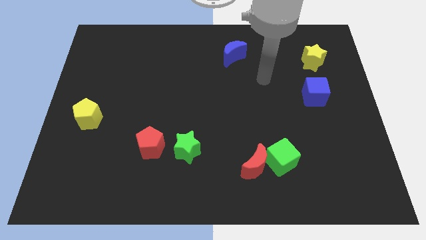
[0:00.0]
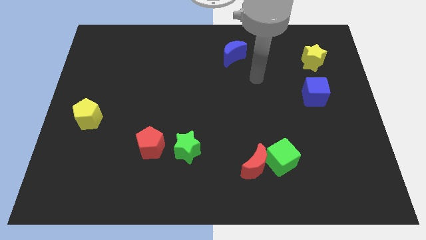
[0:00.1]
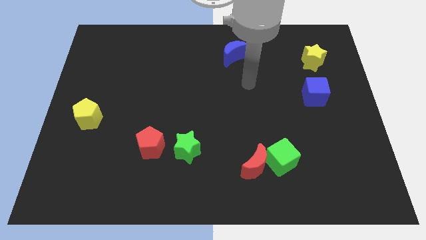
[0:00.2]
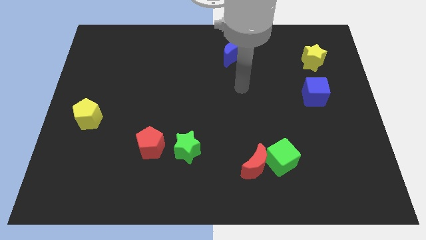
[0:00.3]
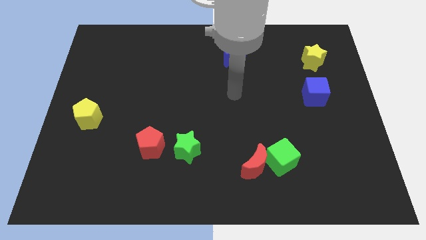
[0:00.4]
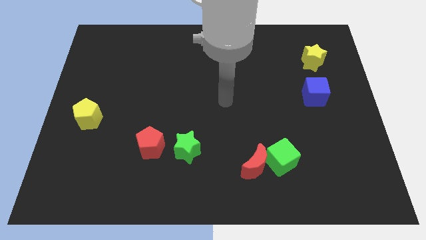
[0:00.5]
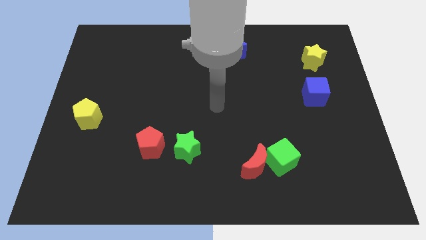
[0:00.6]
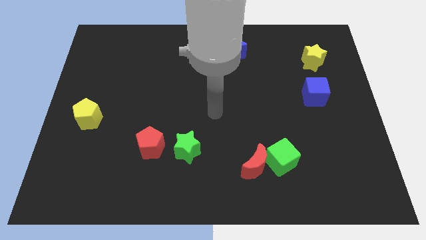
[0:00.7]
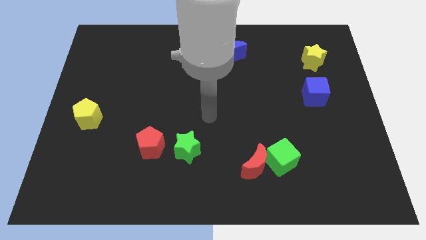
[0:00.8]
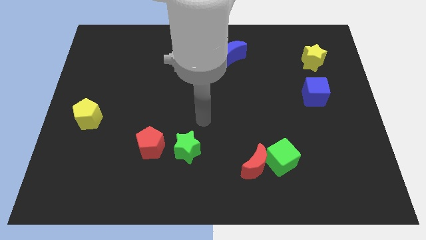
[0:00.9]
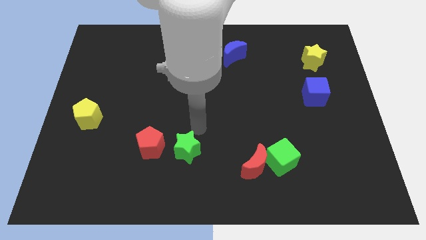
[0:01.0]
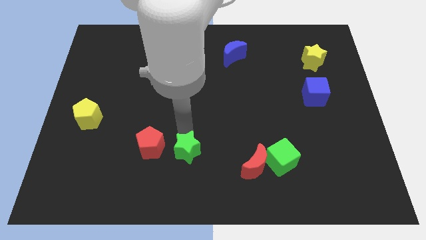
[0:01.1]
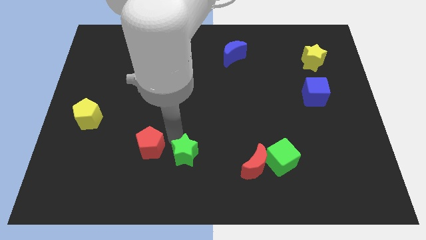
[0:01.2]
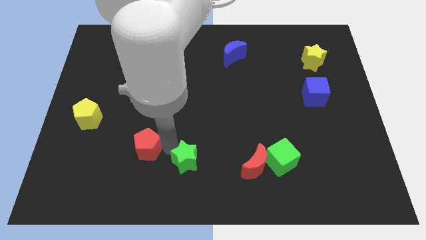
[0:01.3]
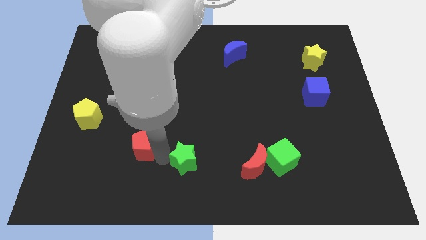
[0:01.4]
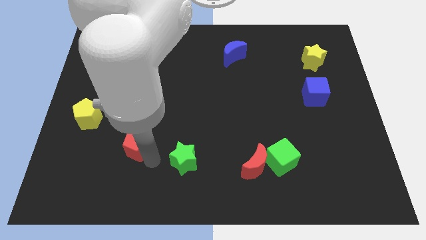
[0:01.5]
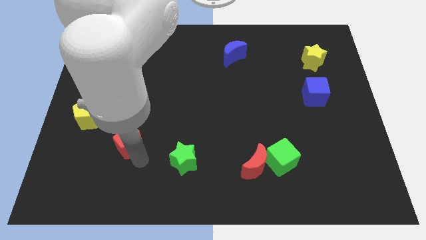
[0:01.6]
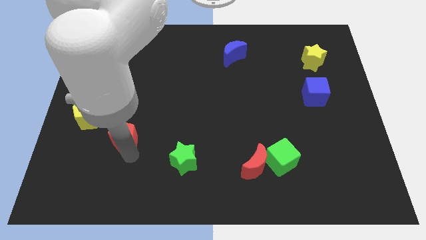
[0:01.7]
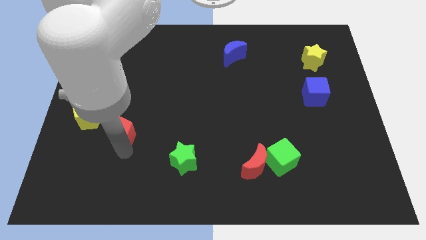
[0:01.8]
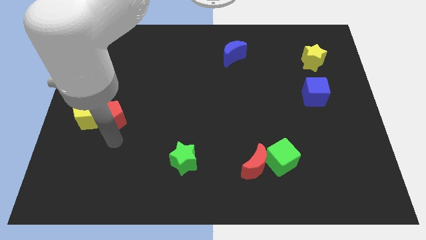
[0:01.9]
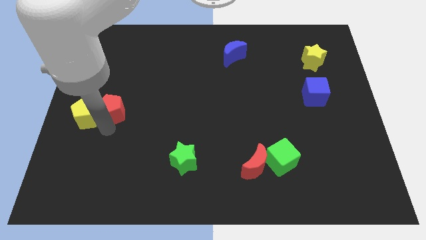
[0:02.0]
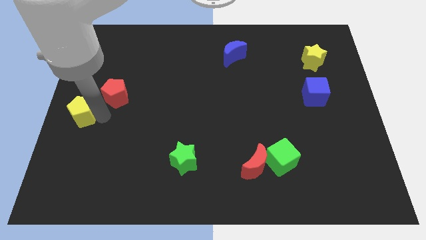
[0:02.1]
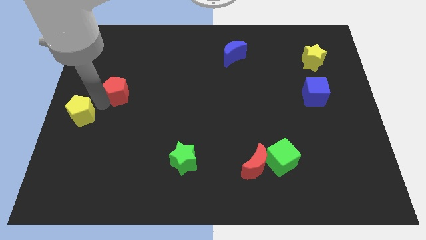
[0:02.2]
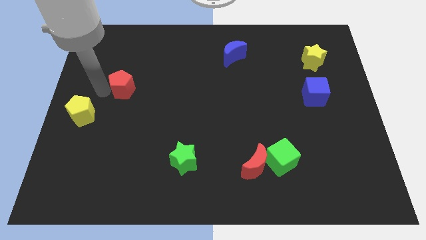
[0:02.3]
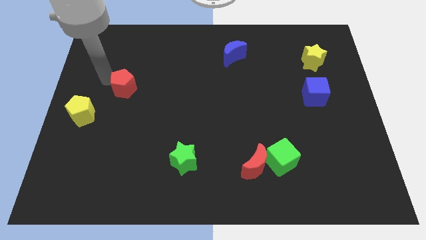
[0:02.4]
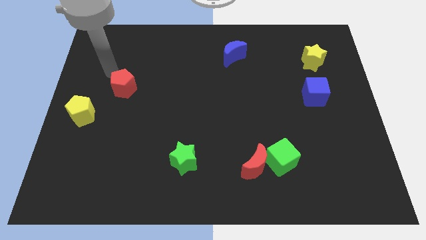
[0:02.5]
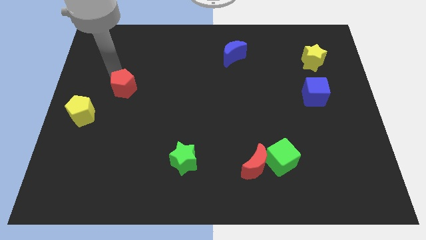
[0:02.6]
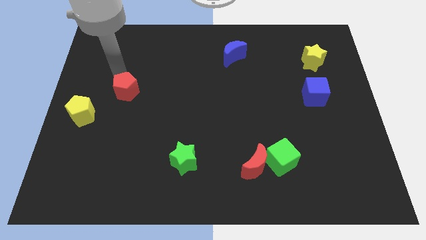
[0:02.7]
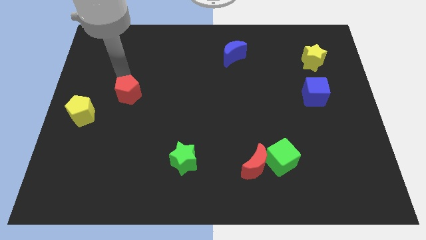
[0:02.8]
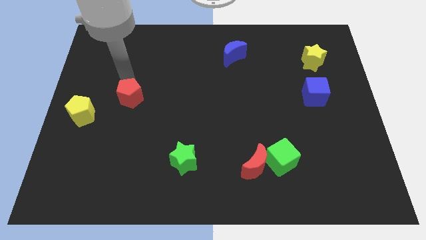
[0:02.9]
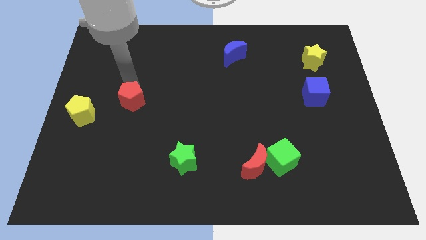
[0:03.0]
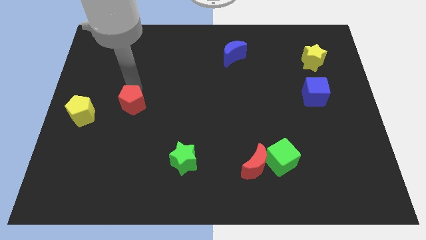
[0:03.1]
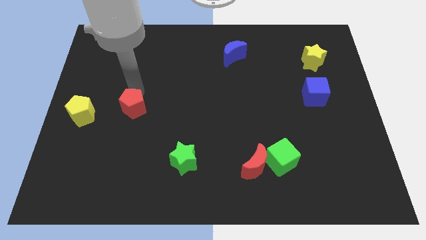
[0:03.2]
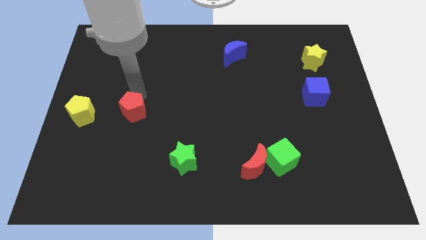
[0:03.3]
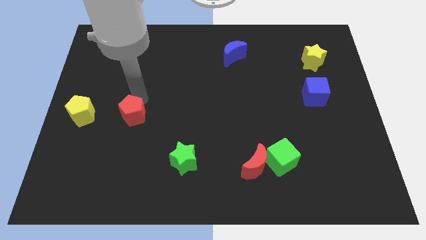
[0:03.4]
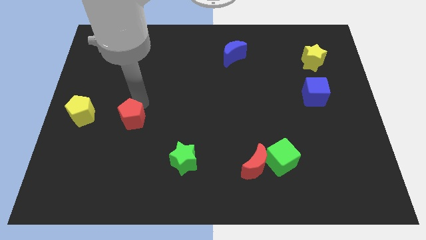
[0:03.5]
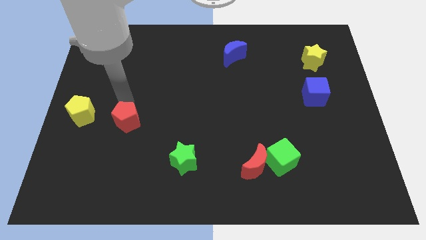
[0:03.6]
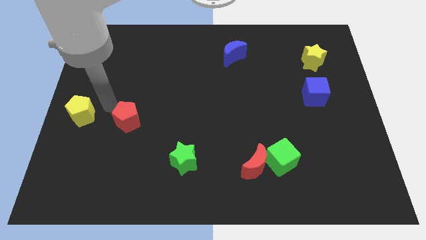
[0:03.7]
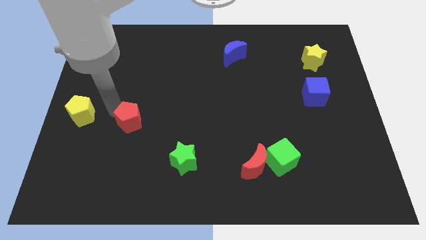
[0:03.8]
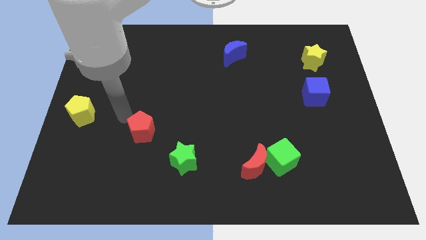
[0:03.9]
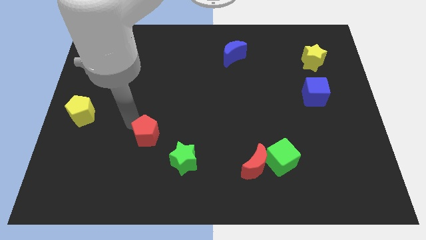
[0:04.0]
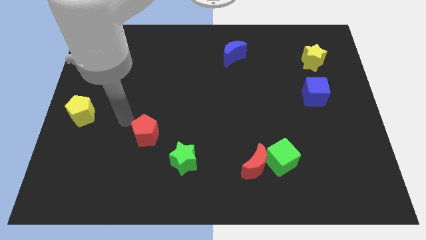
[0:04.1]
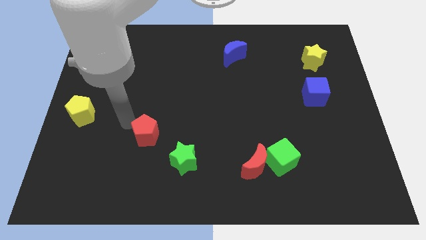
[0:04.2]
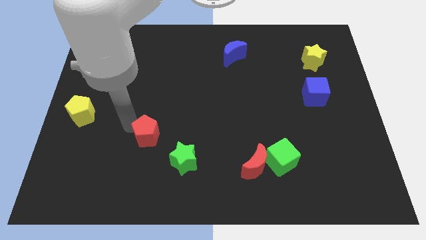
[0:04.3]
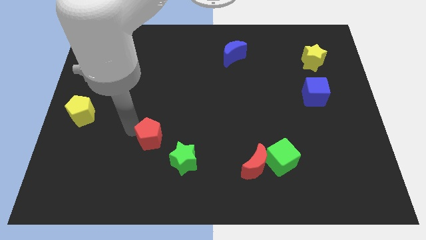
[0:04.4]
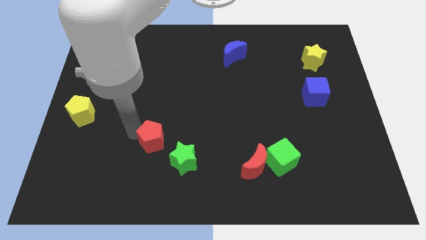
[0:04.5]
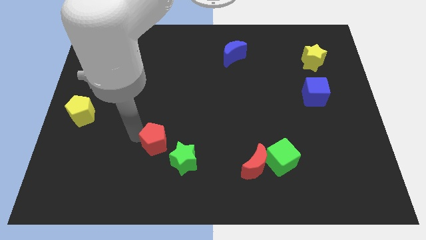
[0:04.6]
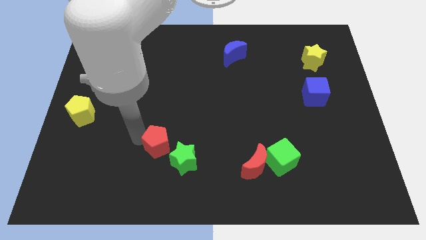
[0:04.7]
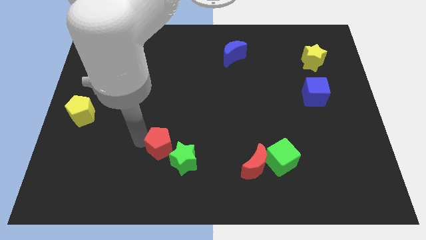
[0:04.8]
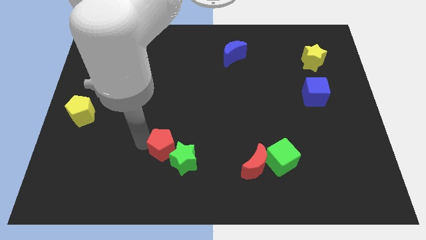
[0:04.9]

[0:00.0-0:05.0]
move the red pentagon to the green star

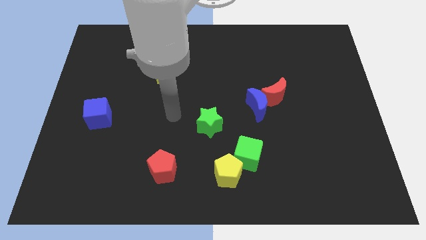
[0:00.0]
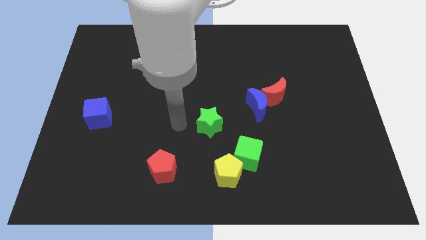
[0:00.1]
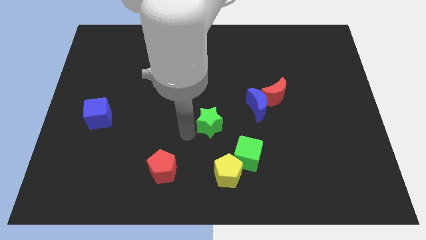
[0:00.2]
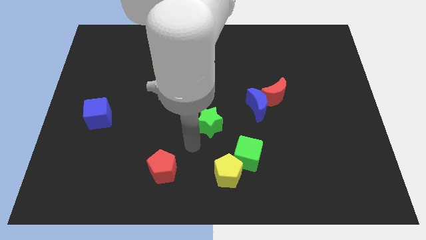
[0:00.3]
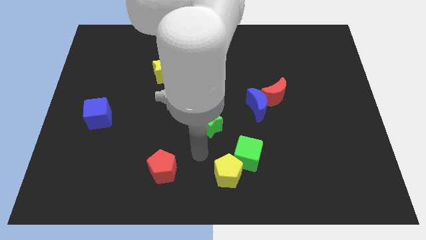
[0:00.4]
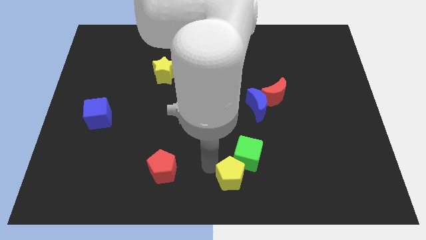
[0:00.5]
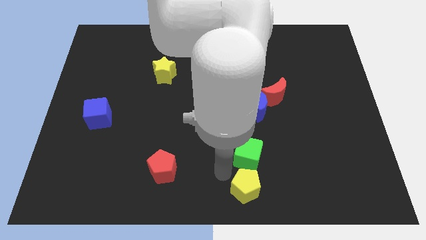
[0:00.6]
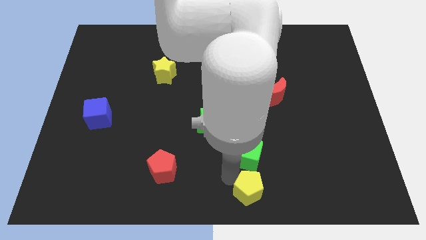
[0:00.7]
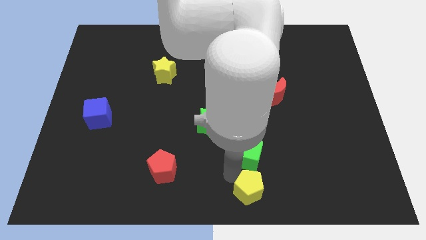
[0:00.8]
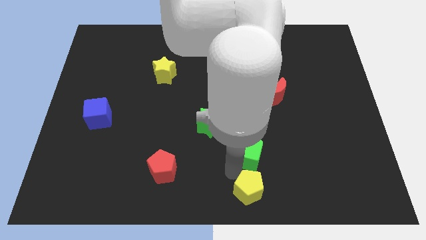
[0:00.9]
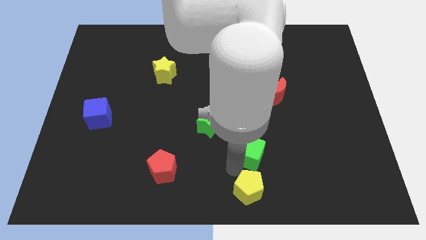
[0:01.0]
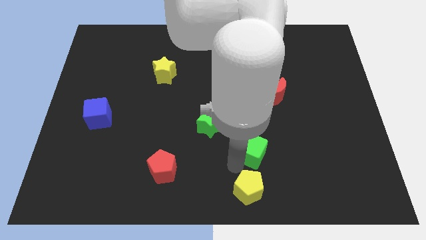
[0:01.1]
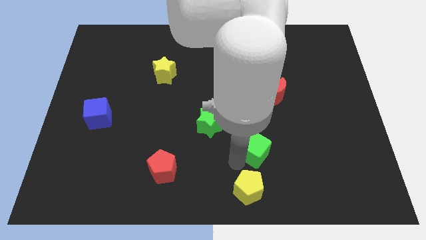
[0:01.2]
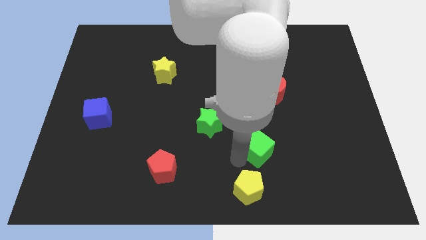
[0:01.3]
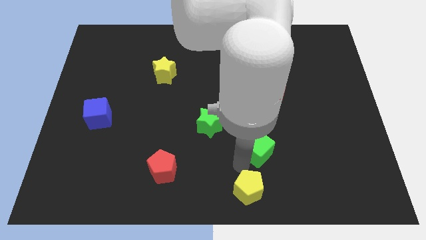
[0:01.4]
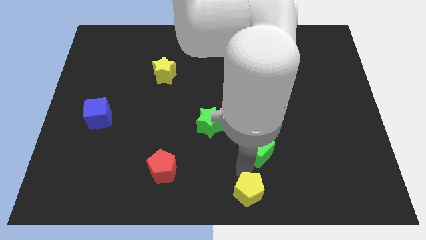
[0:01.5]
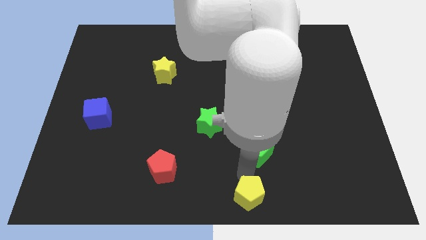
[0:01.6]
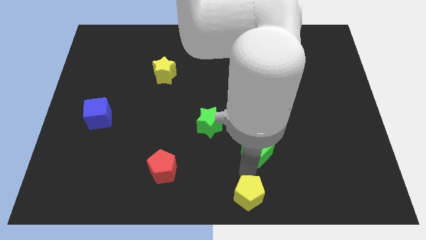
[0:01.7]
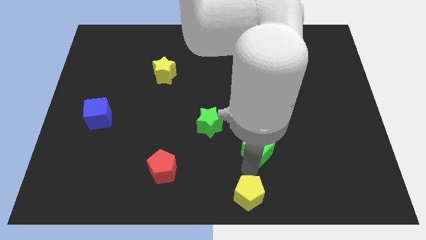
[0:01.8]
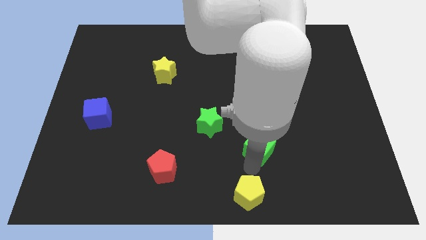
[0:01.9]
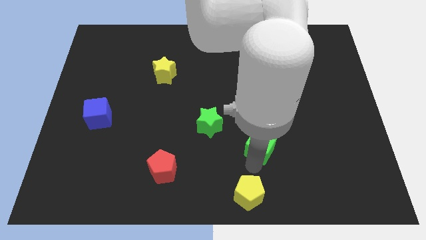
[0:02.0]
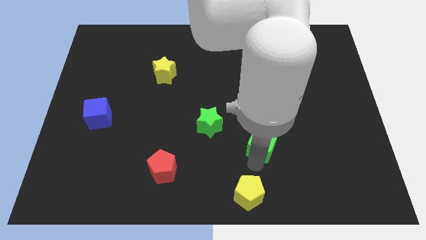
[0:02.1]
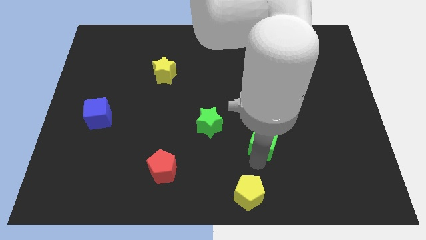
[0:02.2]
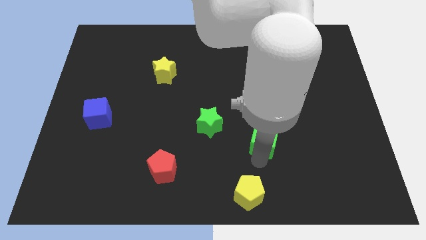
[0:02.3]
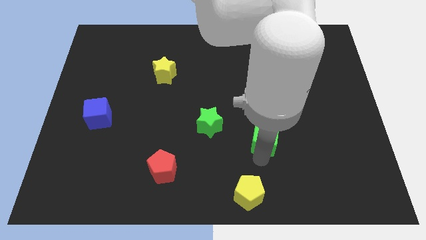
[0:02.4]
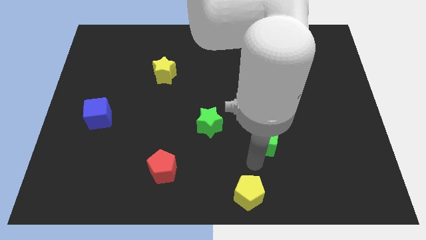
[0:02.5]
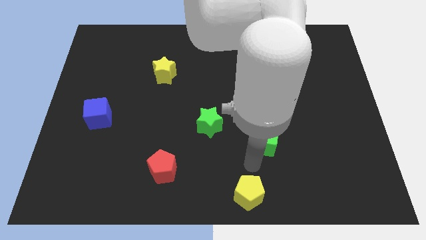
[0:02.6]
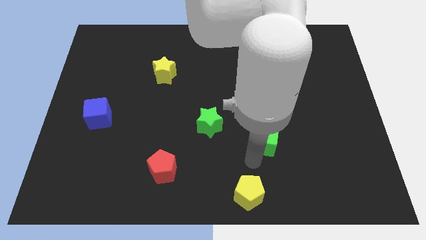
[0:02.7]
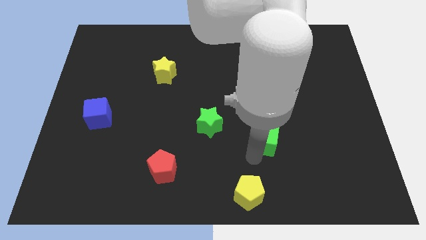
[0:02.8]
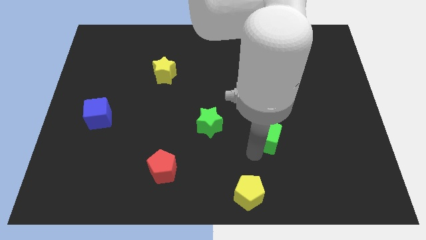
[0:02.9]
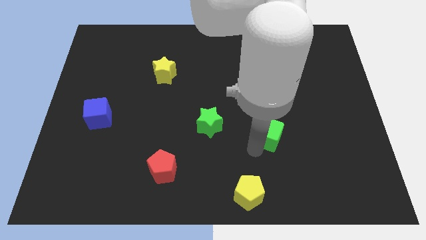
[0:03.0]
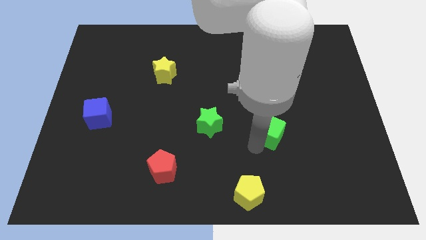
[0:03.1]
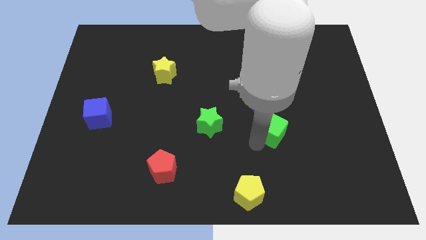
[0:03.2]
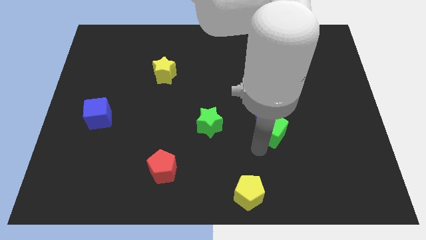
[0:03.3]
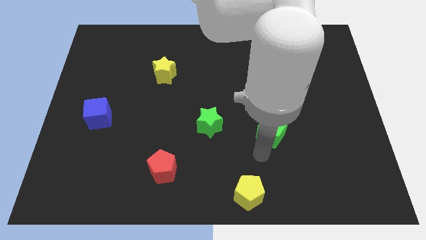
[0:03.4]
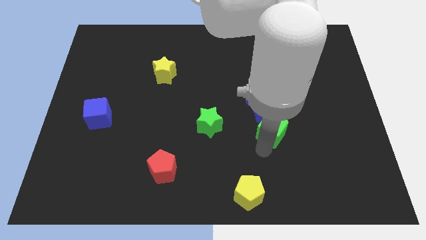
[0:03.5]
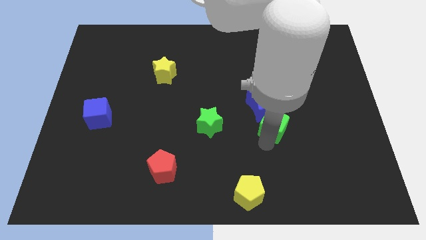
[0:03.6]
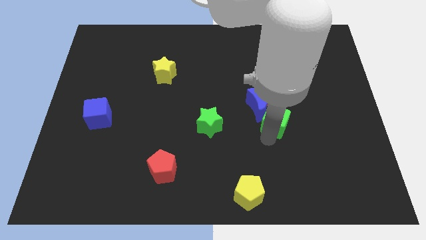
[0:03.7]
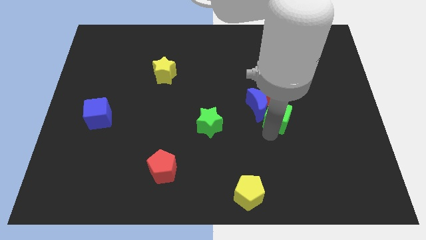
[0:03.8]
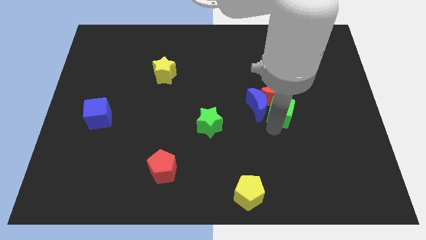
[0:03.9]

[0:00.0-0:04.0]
put the green cube to the red moon
